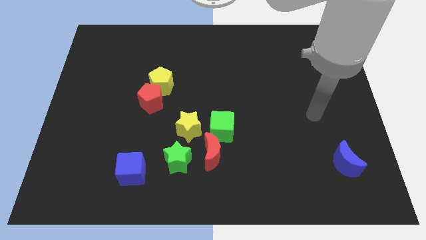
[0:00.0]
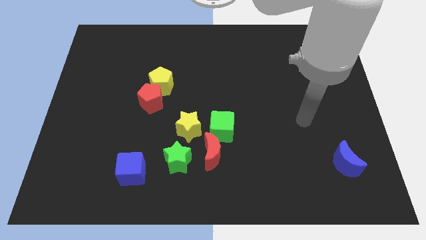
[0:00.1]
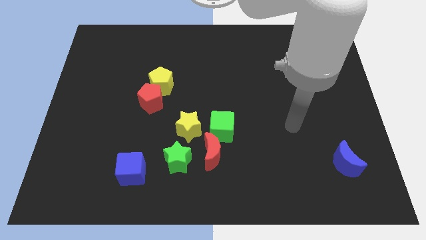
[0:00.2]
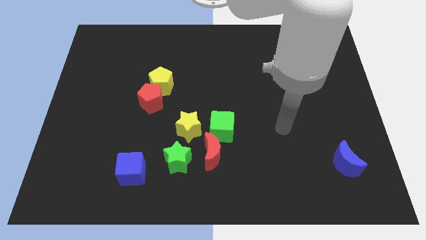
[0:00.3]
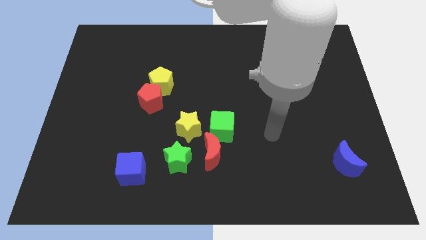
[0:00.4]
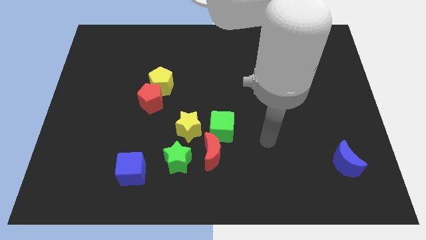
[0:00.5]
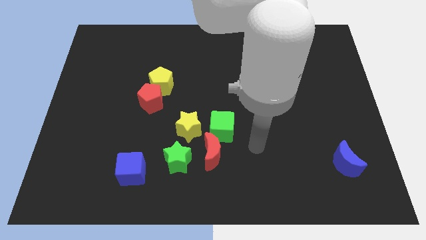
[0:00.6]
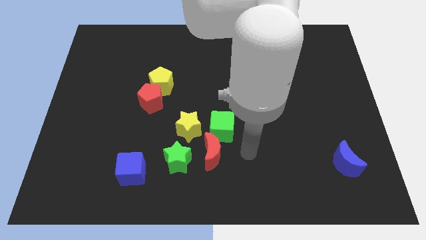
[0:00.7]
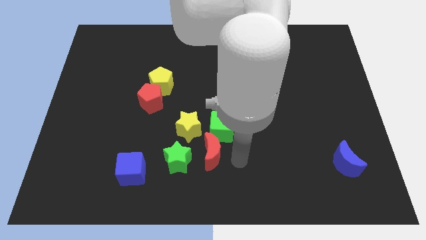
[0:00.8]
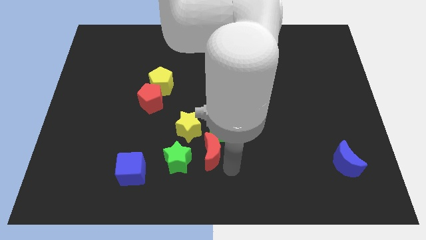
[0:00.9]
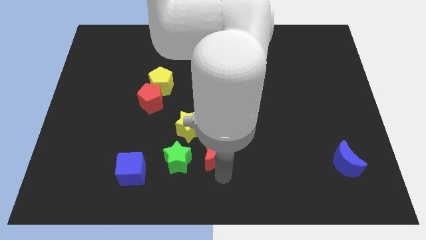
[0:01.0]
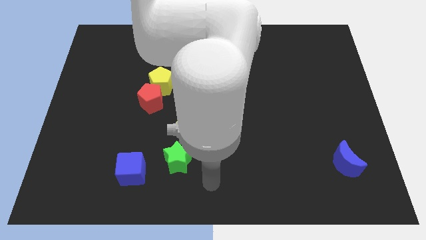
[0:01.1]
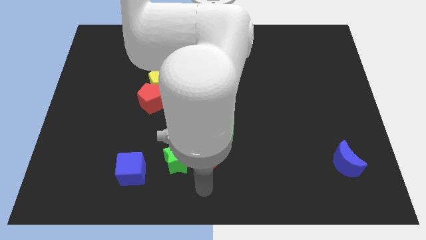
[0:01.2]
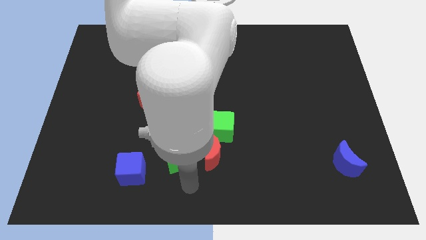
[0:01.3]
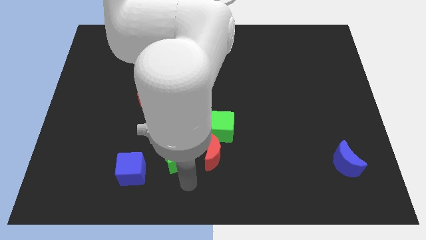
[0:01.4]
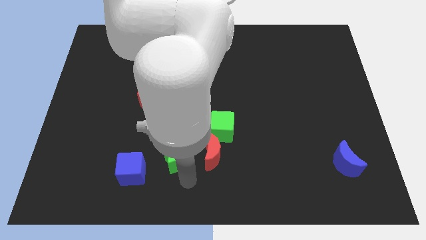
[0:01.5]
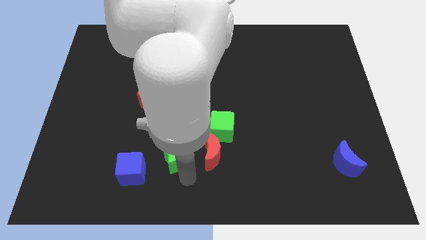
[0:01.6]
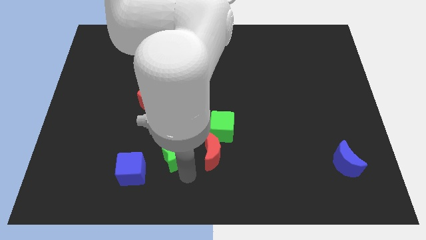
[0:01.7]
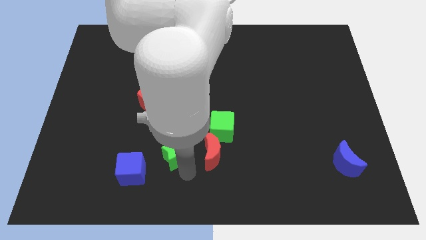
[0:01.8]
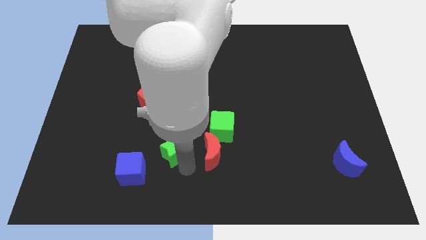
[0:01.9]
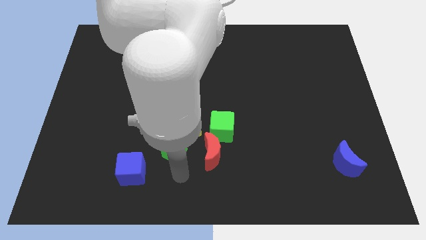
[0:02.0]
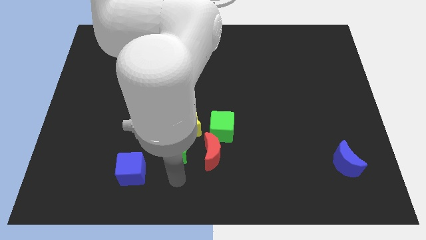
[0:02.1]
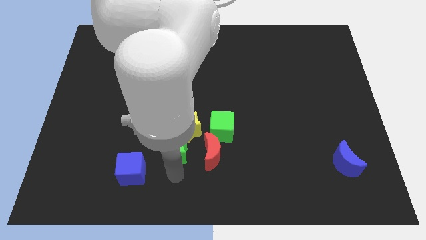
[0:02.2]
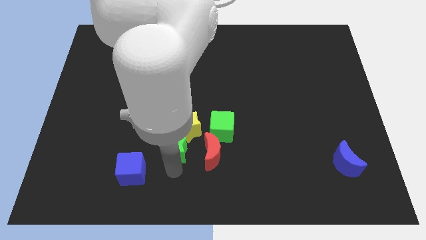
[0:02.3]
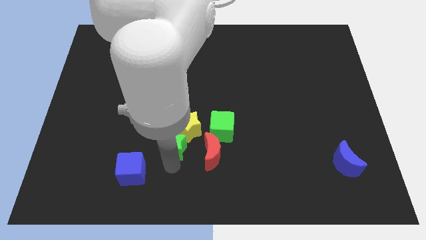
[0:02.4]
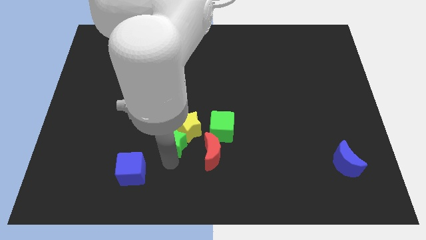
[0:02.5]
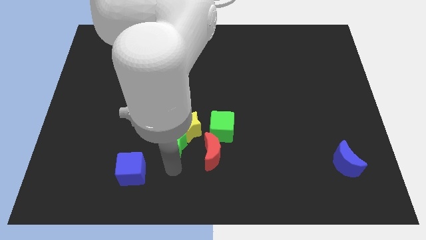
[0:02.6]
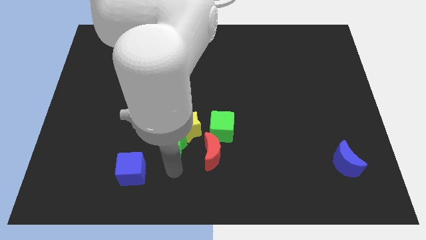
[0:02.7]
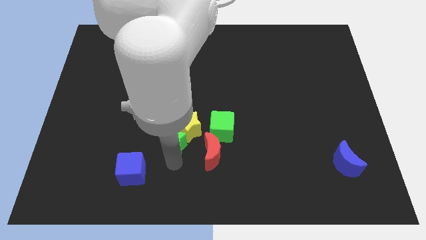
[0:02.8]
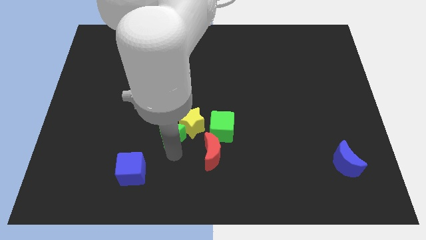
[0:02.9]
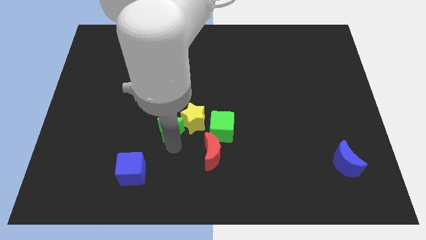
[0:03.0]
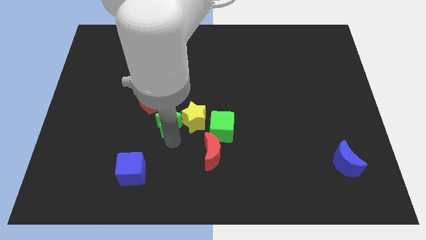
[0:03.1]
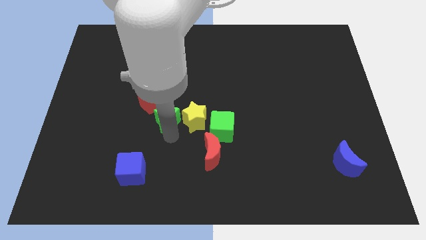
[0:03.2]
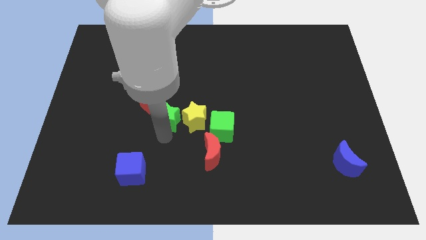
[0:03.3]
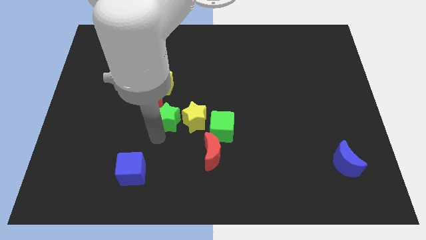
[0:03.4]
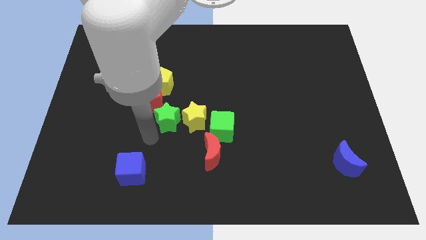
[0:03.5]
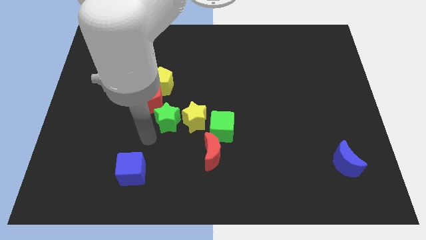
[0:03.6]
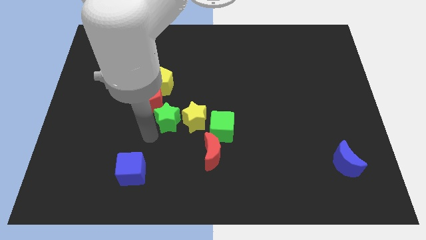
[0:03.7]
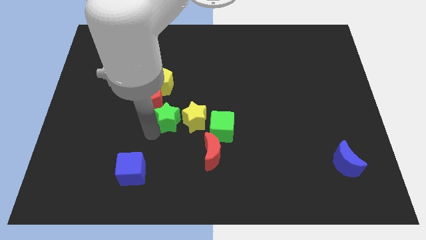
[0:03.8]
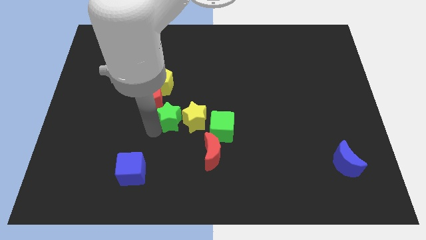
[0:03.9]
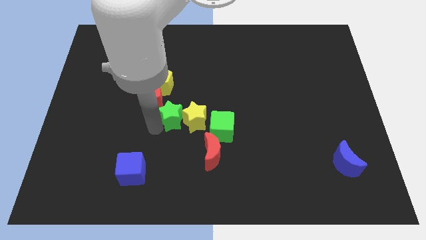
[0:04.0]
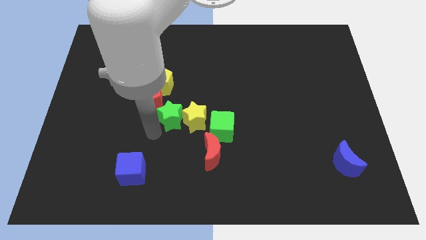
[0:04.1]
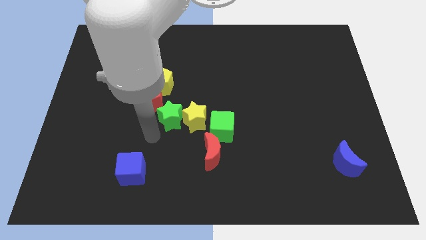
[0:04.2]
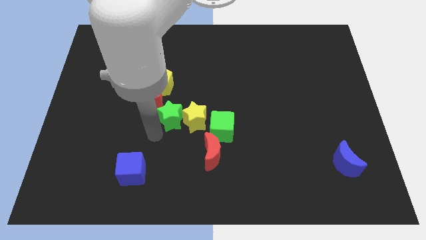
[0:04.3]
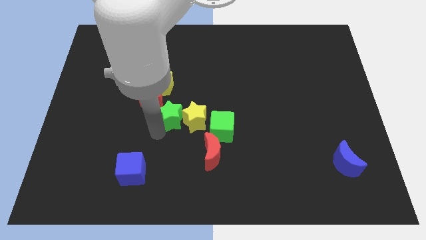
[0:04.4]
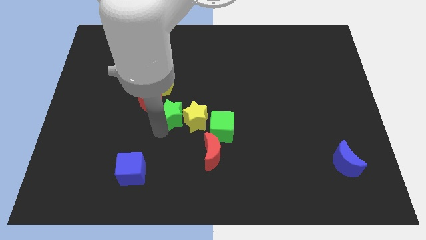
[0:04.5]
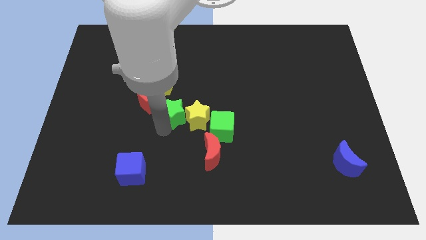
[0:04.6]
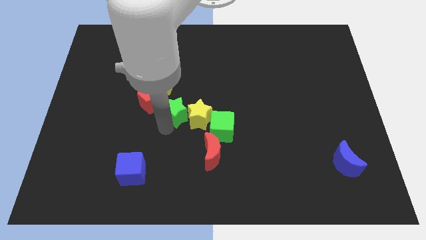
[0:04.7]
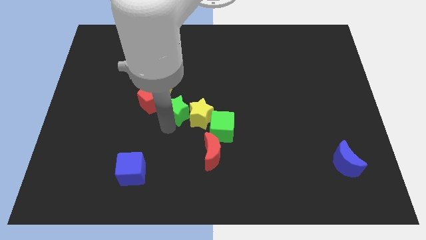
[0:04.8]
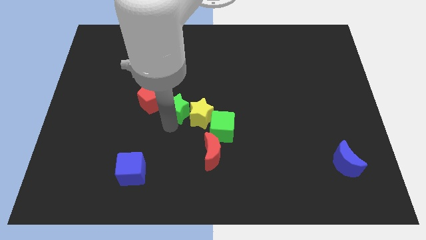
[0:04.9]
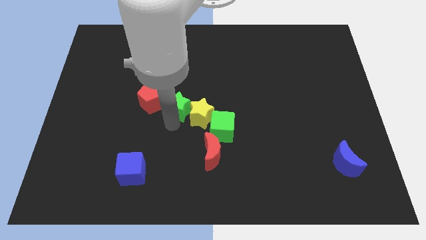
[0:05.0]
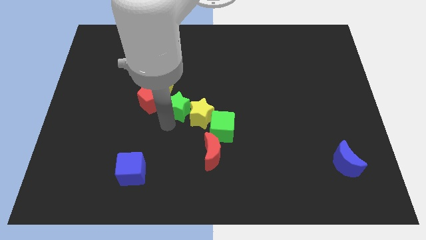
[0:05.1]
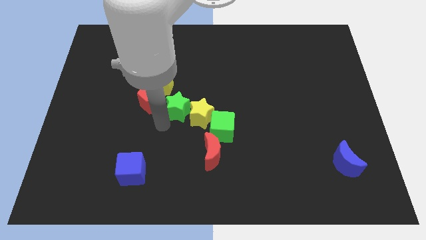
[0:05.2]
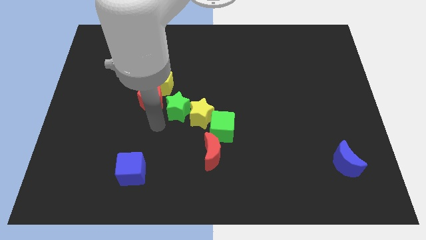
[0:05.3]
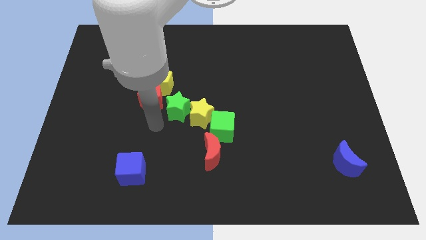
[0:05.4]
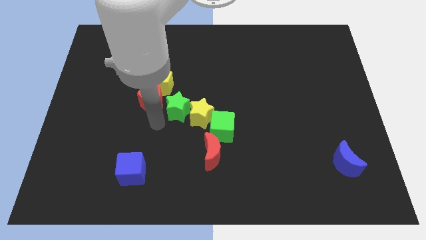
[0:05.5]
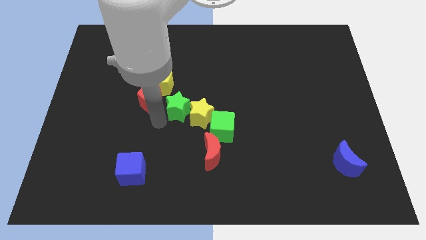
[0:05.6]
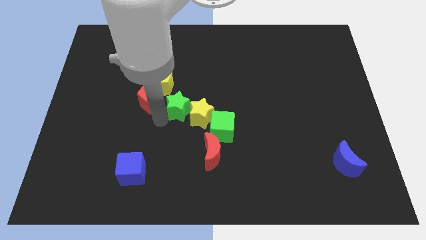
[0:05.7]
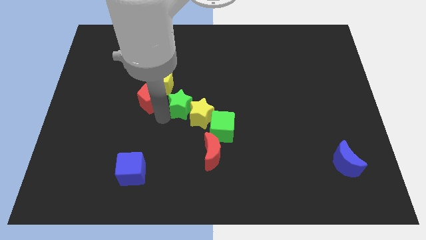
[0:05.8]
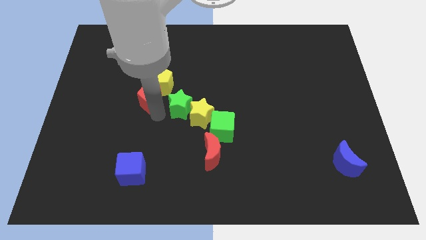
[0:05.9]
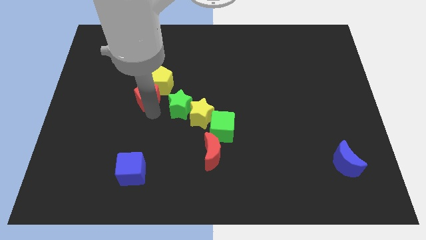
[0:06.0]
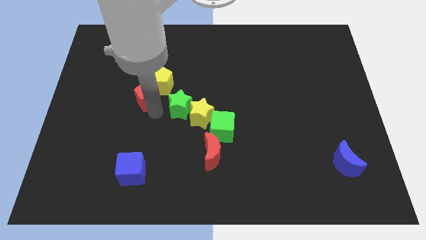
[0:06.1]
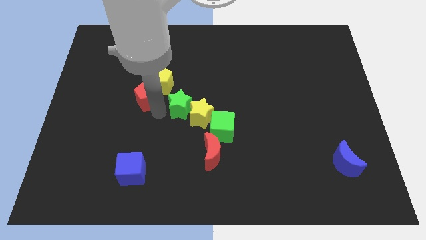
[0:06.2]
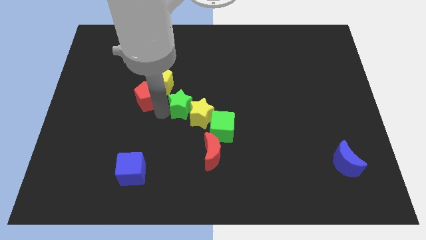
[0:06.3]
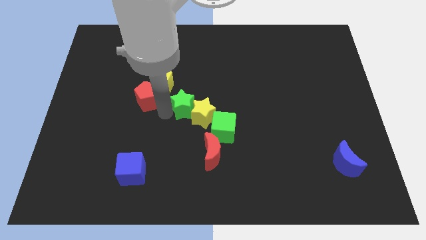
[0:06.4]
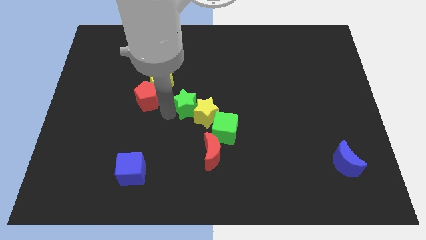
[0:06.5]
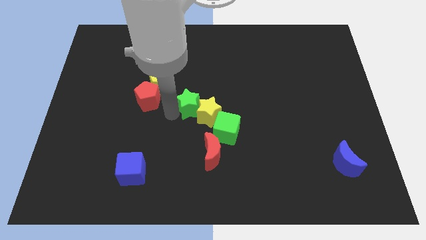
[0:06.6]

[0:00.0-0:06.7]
move the green star upwards and to the right diagonally a little

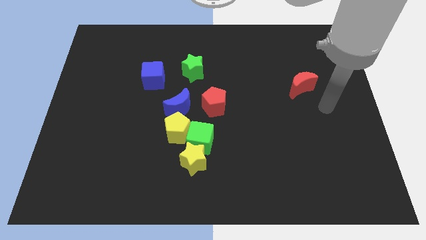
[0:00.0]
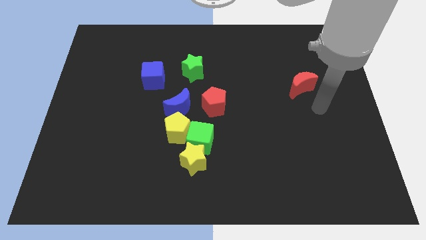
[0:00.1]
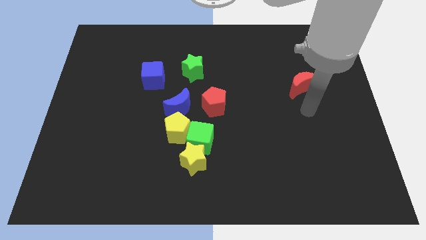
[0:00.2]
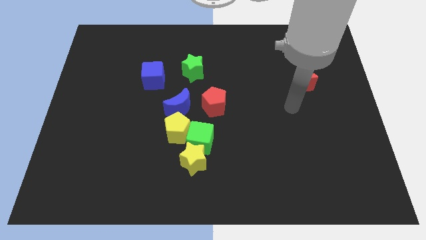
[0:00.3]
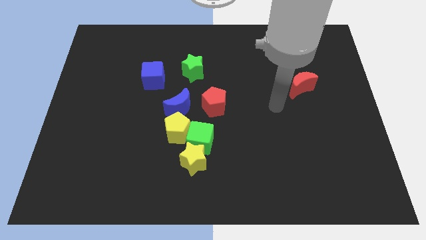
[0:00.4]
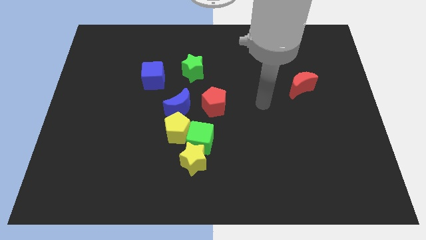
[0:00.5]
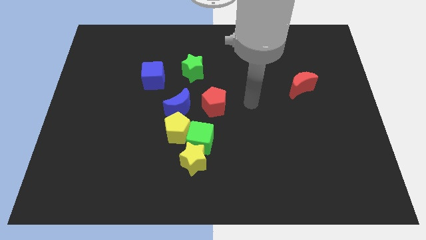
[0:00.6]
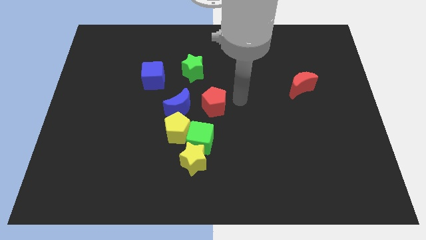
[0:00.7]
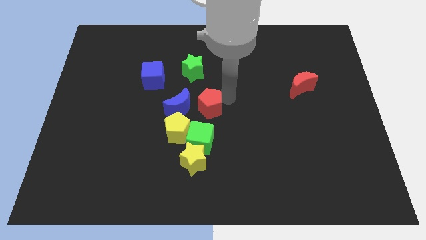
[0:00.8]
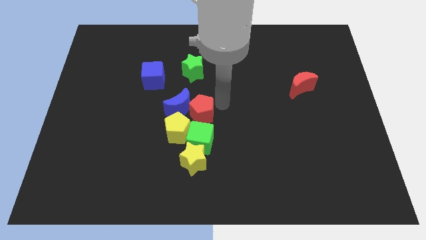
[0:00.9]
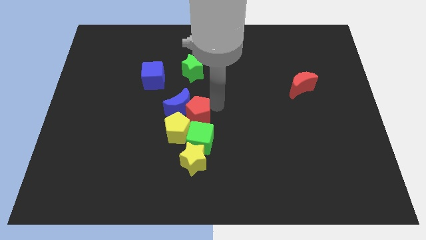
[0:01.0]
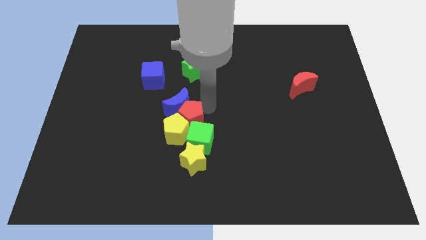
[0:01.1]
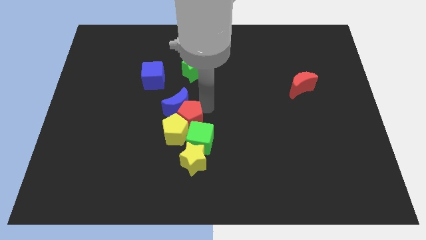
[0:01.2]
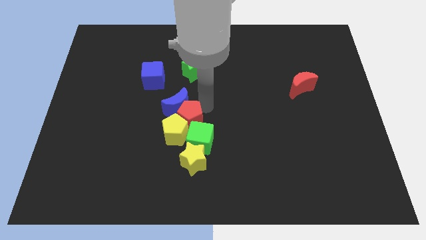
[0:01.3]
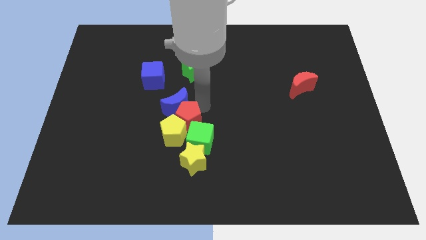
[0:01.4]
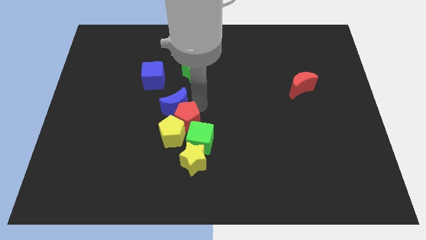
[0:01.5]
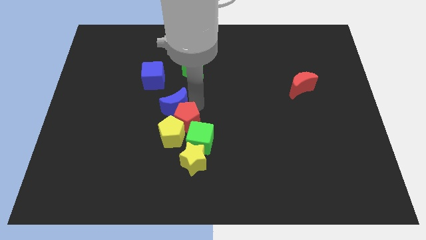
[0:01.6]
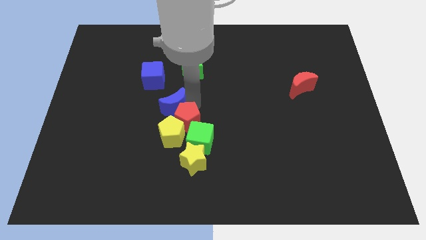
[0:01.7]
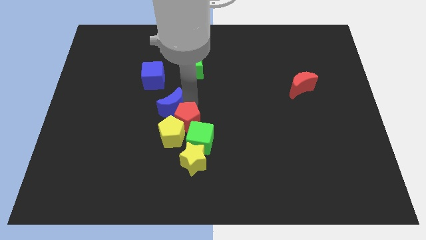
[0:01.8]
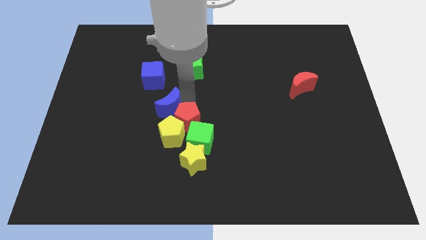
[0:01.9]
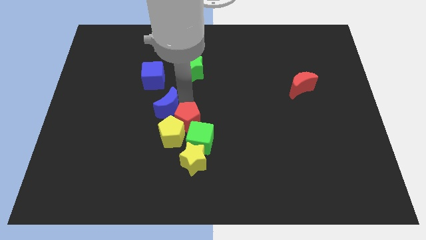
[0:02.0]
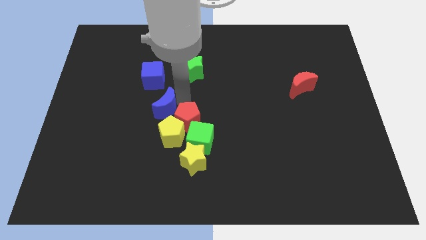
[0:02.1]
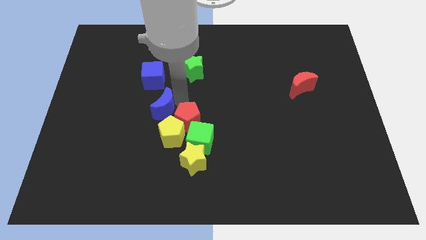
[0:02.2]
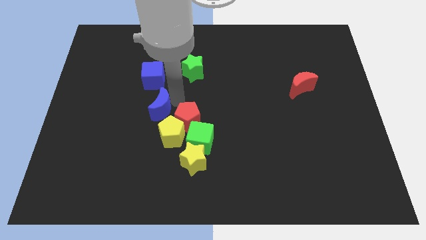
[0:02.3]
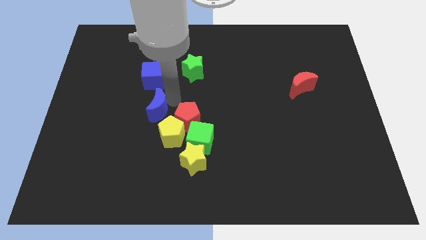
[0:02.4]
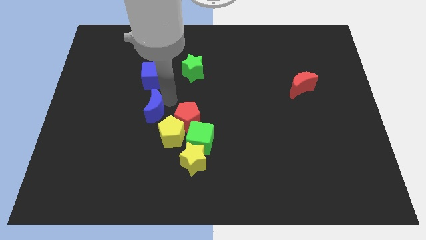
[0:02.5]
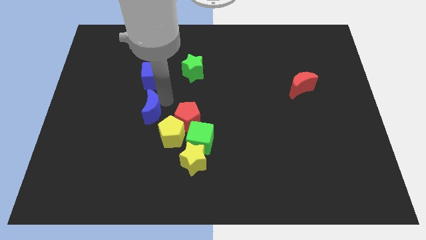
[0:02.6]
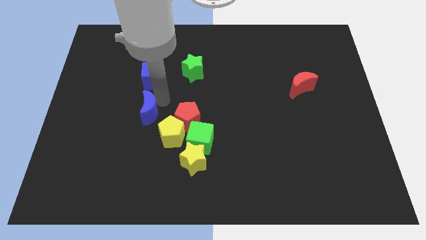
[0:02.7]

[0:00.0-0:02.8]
slightly push the blue moon left
